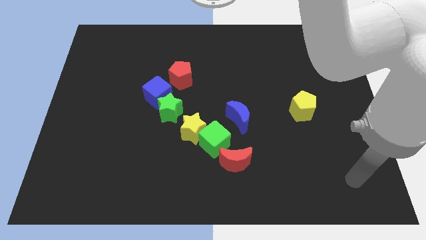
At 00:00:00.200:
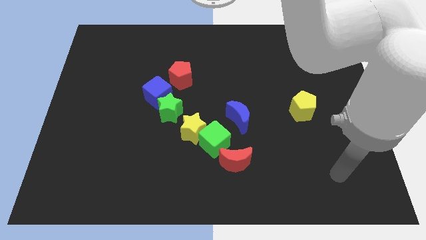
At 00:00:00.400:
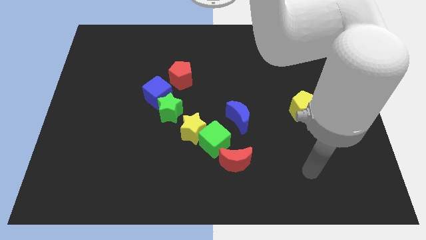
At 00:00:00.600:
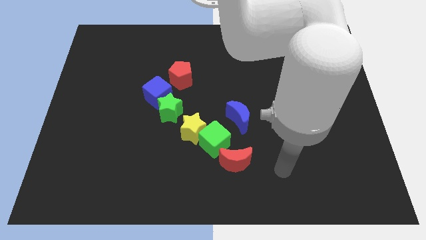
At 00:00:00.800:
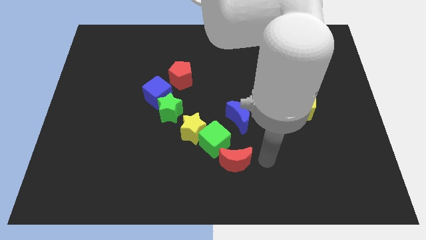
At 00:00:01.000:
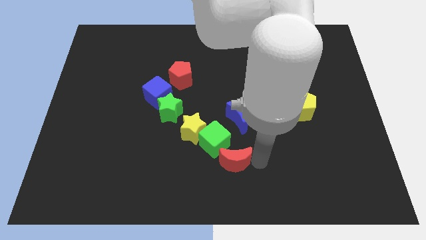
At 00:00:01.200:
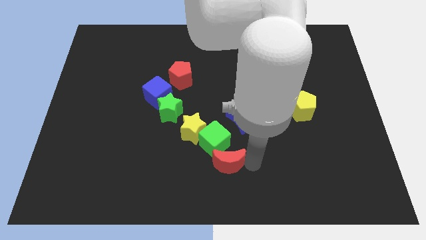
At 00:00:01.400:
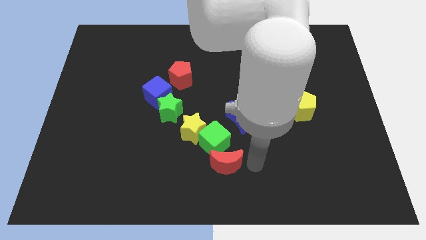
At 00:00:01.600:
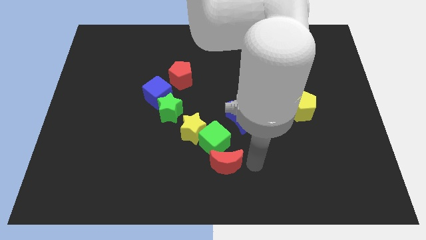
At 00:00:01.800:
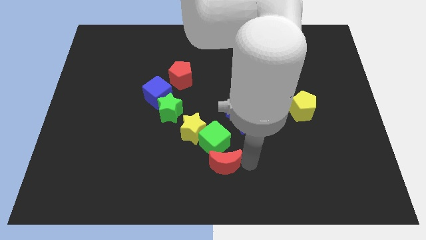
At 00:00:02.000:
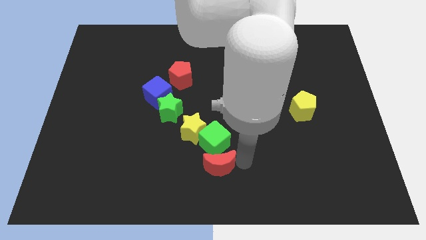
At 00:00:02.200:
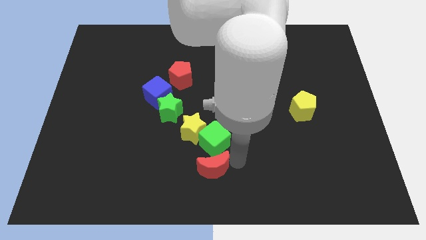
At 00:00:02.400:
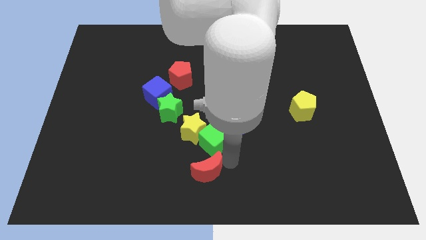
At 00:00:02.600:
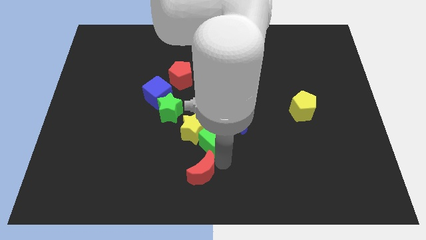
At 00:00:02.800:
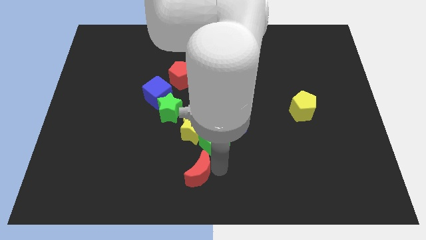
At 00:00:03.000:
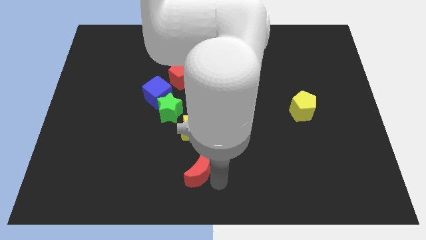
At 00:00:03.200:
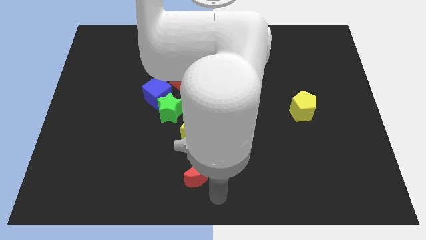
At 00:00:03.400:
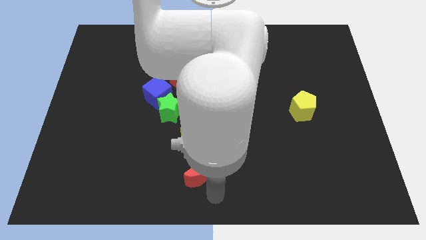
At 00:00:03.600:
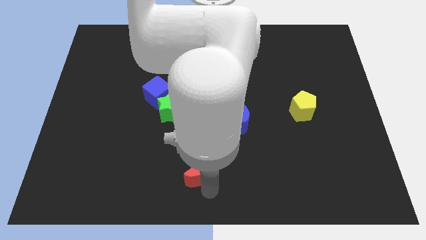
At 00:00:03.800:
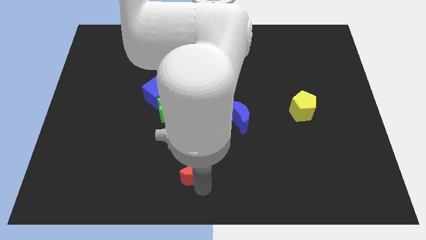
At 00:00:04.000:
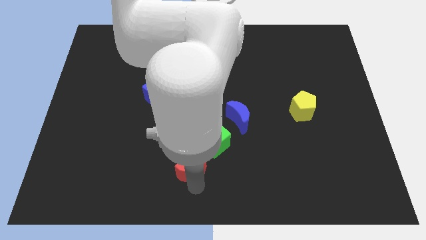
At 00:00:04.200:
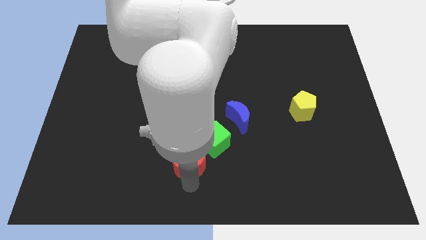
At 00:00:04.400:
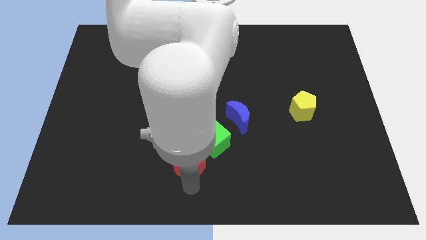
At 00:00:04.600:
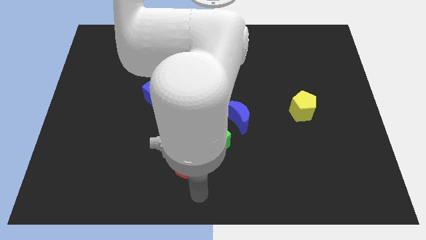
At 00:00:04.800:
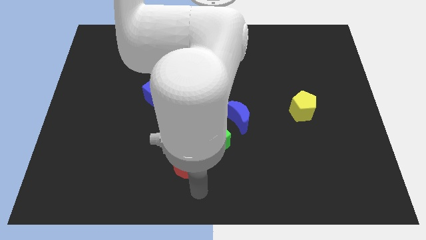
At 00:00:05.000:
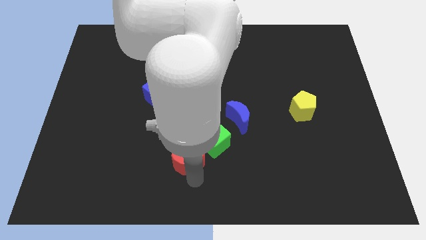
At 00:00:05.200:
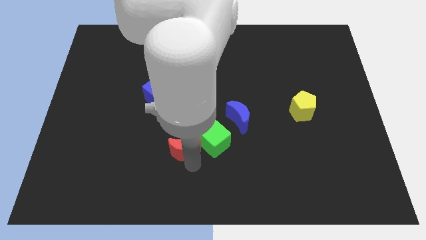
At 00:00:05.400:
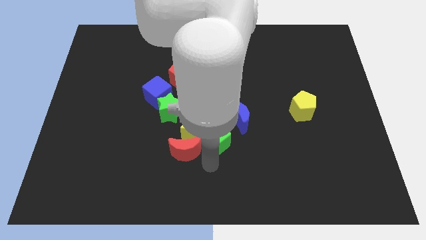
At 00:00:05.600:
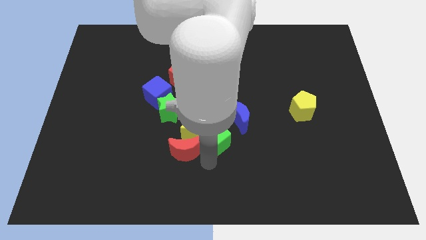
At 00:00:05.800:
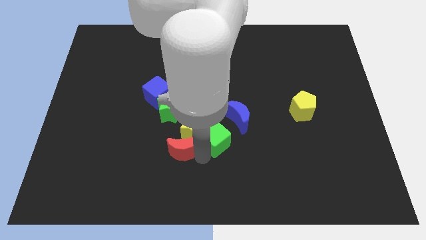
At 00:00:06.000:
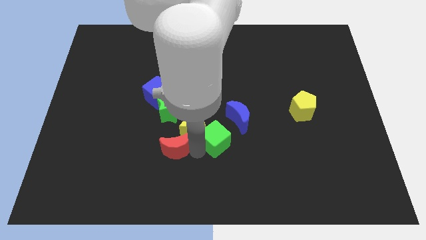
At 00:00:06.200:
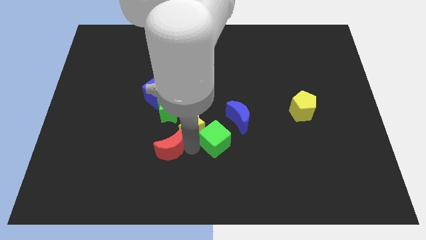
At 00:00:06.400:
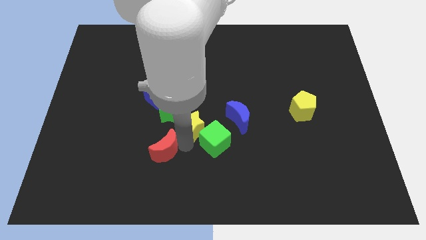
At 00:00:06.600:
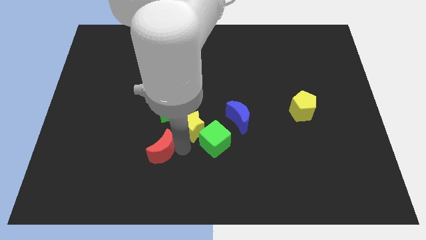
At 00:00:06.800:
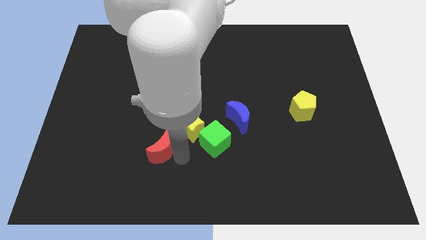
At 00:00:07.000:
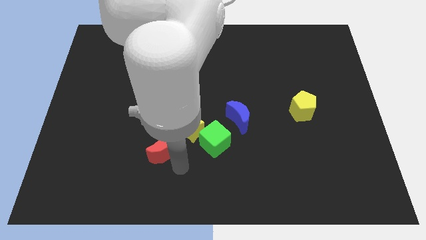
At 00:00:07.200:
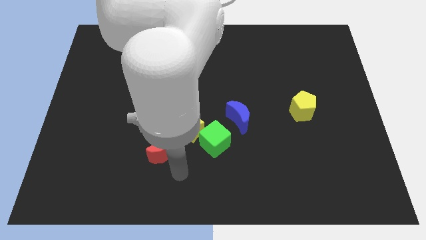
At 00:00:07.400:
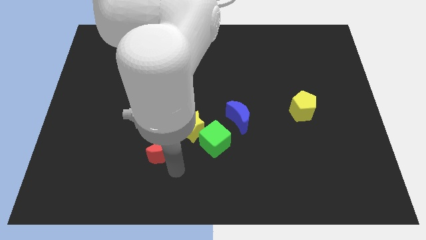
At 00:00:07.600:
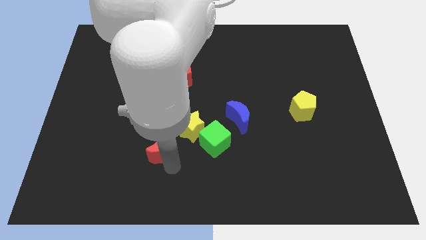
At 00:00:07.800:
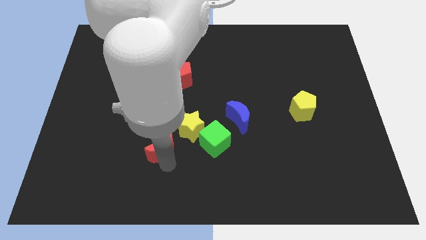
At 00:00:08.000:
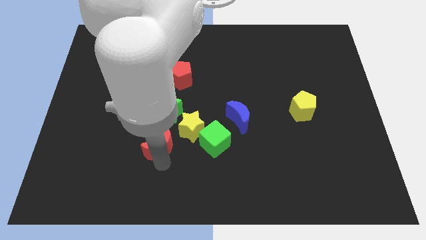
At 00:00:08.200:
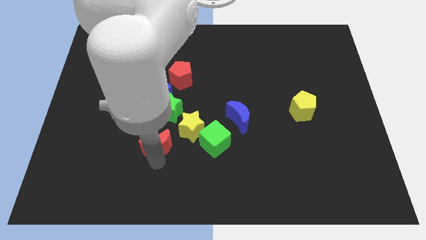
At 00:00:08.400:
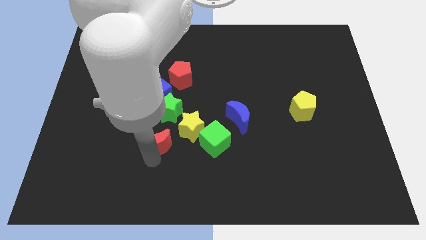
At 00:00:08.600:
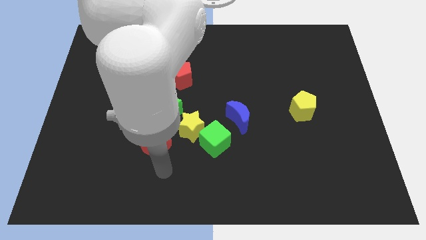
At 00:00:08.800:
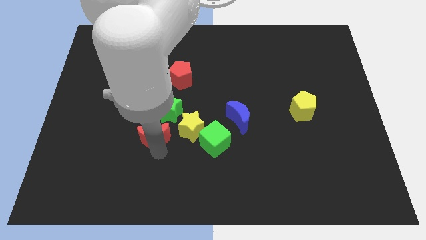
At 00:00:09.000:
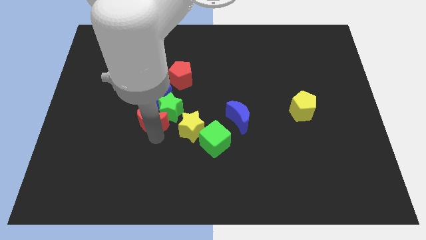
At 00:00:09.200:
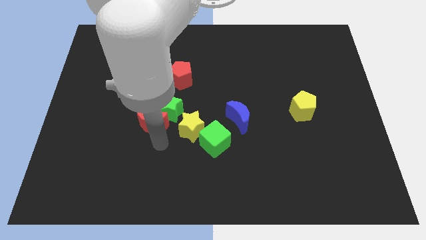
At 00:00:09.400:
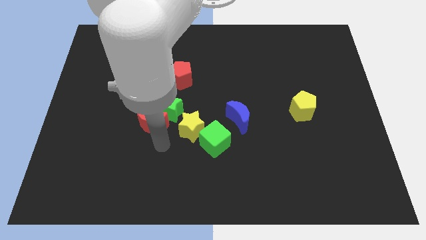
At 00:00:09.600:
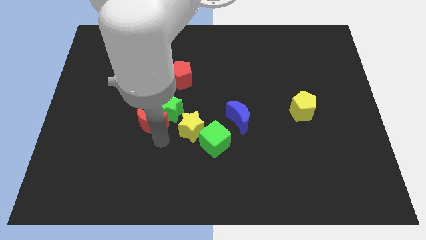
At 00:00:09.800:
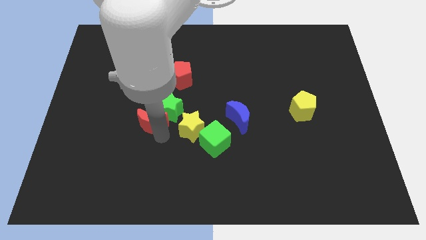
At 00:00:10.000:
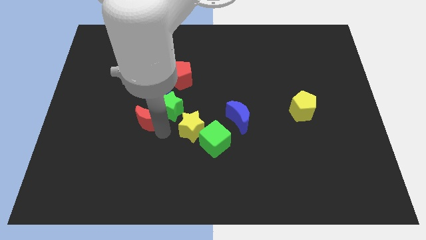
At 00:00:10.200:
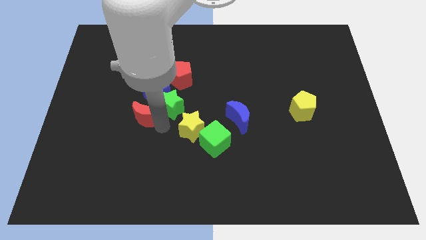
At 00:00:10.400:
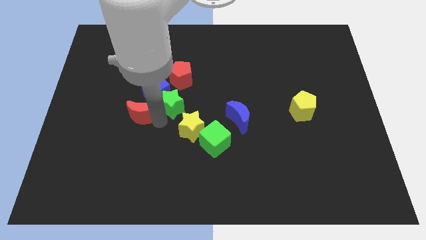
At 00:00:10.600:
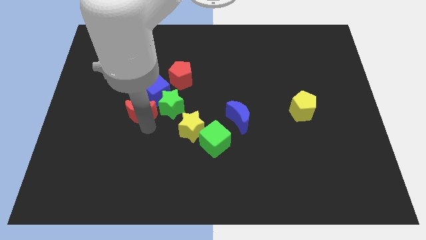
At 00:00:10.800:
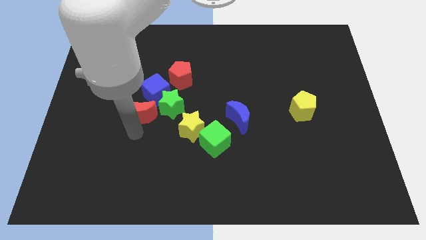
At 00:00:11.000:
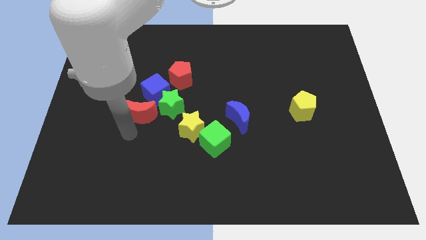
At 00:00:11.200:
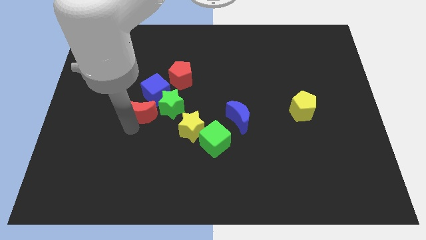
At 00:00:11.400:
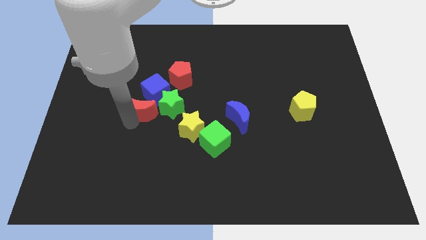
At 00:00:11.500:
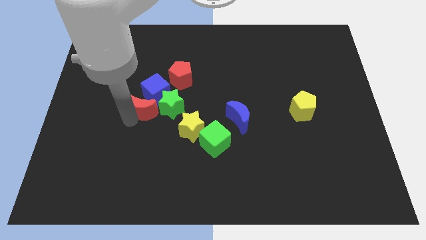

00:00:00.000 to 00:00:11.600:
move the red moon close to the blue cube

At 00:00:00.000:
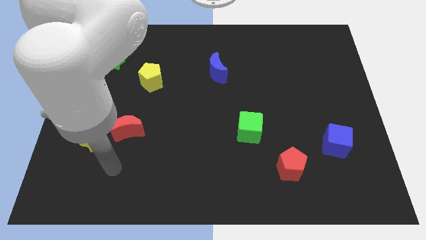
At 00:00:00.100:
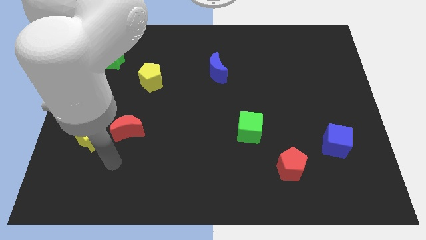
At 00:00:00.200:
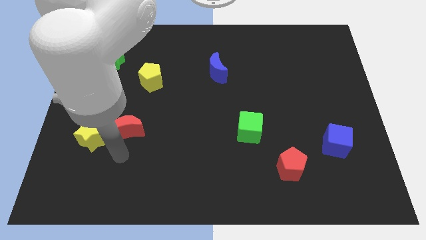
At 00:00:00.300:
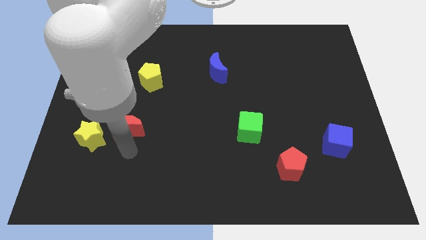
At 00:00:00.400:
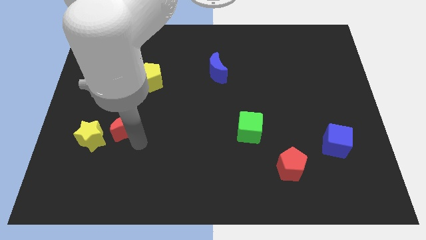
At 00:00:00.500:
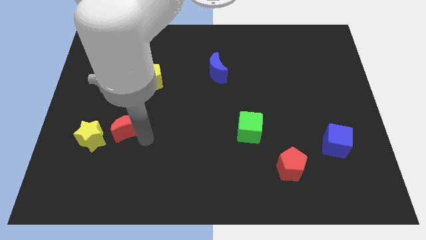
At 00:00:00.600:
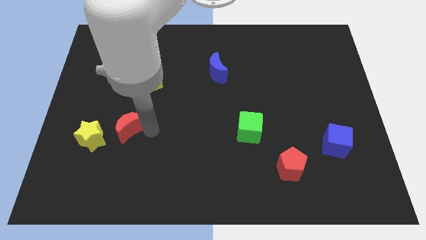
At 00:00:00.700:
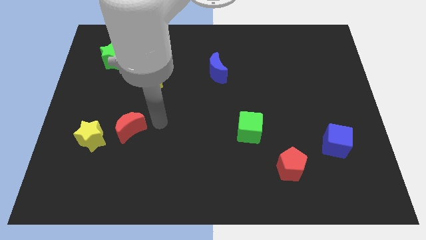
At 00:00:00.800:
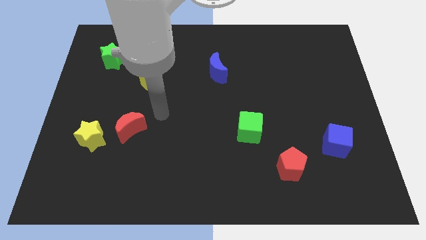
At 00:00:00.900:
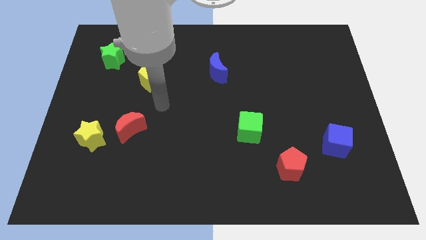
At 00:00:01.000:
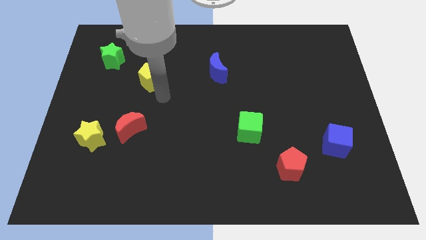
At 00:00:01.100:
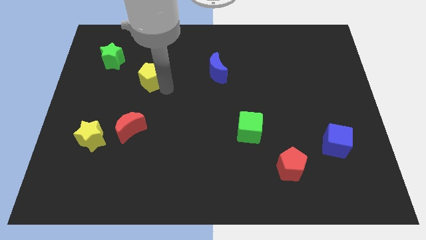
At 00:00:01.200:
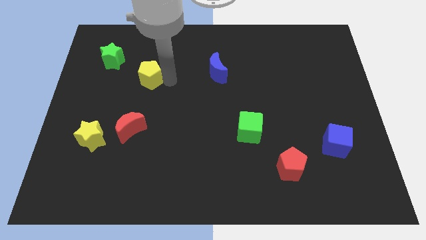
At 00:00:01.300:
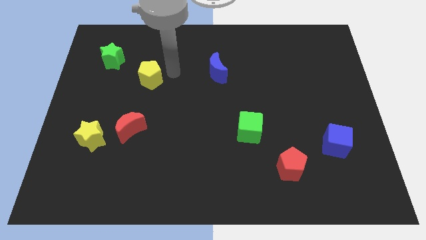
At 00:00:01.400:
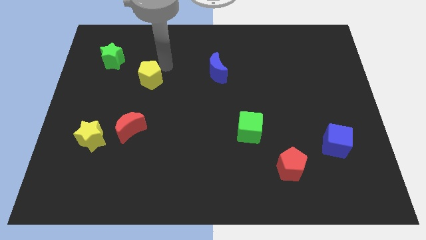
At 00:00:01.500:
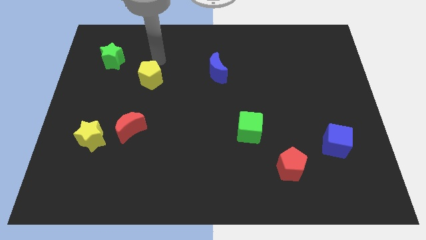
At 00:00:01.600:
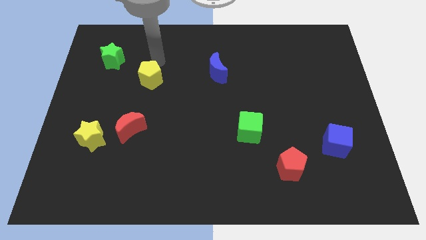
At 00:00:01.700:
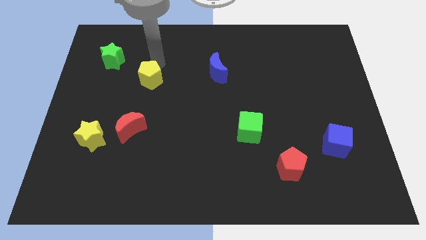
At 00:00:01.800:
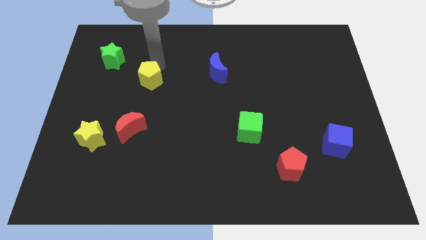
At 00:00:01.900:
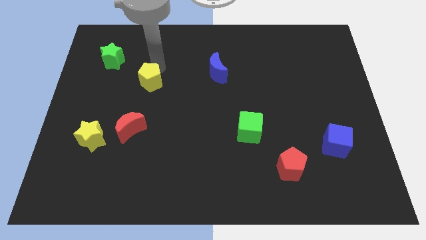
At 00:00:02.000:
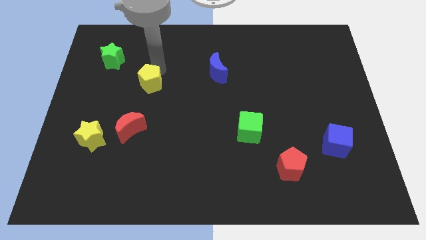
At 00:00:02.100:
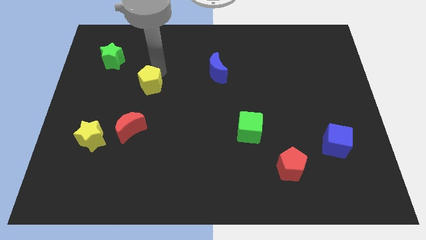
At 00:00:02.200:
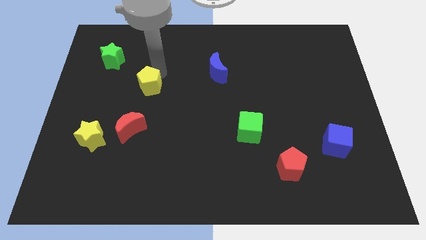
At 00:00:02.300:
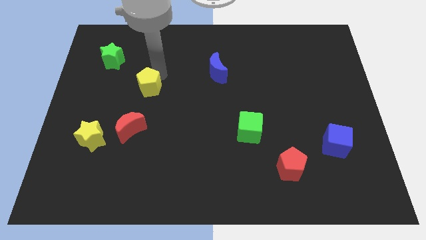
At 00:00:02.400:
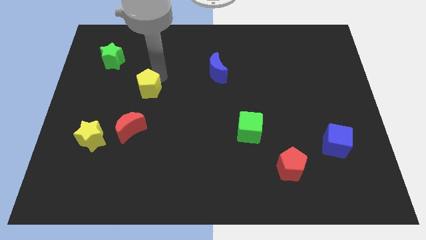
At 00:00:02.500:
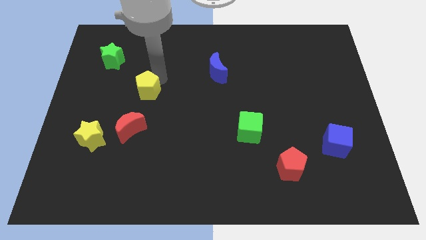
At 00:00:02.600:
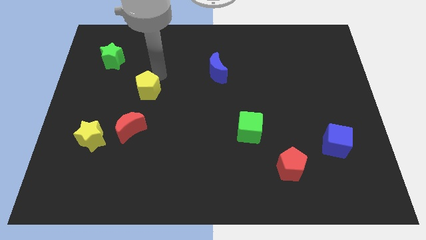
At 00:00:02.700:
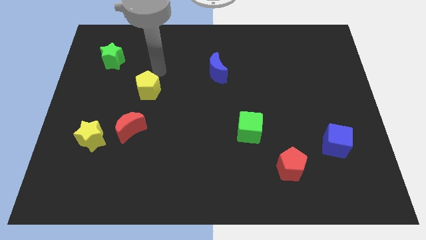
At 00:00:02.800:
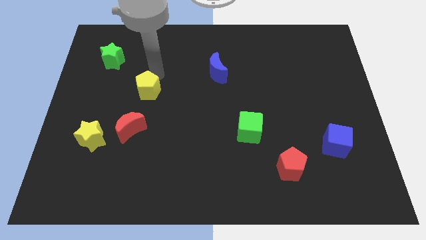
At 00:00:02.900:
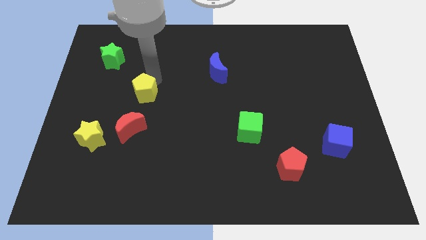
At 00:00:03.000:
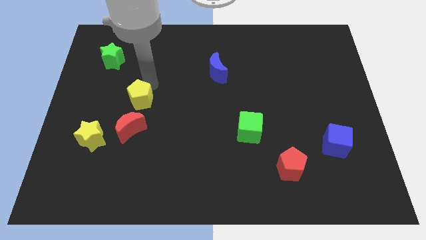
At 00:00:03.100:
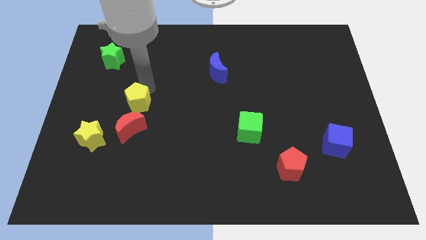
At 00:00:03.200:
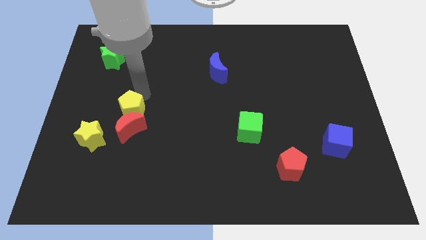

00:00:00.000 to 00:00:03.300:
move the yellow pentagon to the red moon
